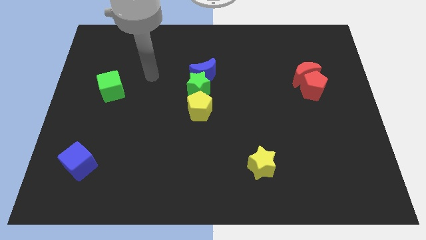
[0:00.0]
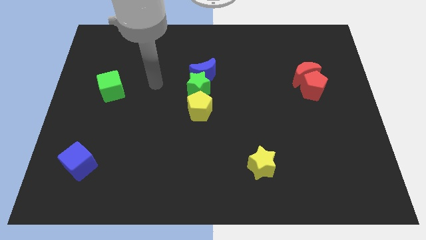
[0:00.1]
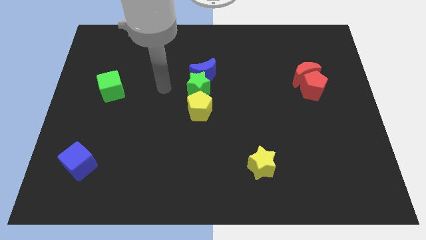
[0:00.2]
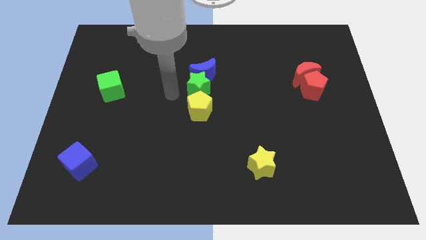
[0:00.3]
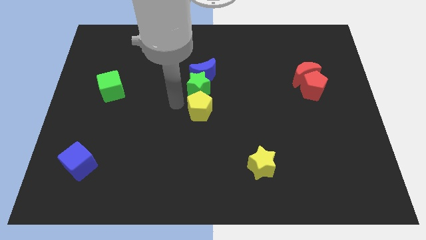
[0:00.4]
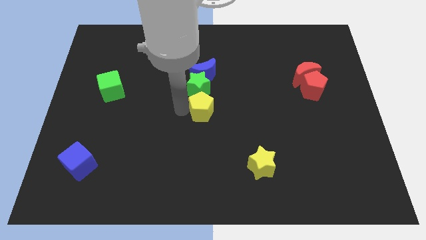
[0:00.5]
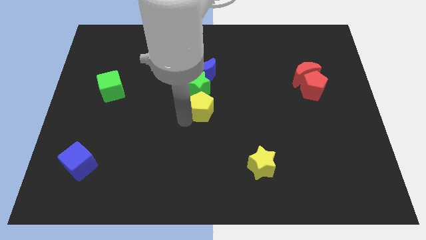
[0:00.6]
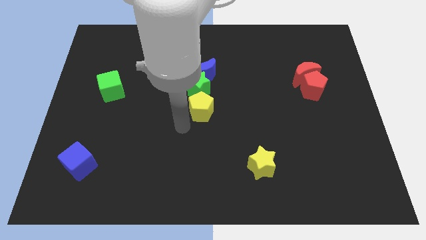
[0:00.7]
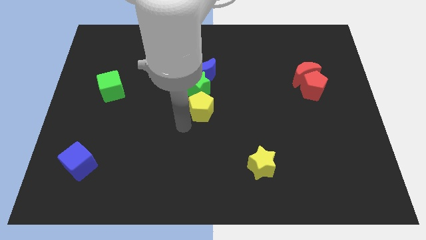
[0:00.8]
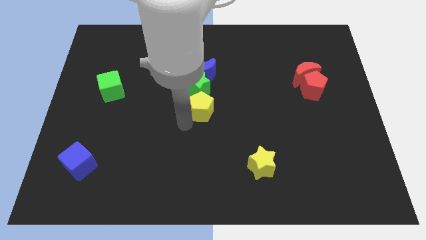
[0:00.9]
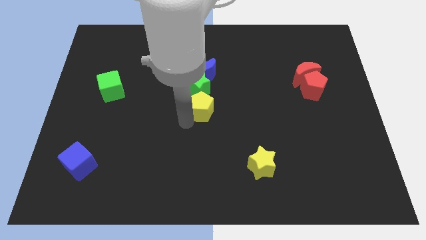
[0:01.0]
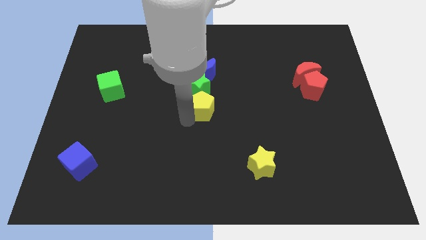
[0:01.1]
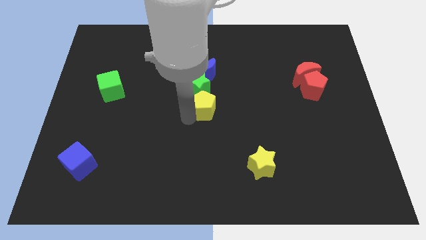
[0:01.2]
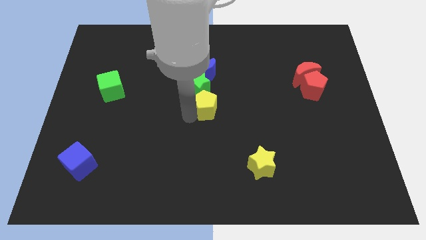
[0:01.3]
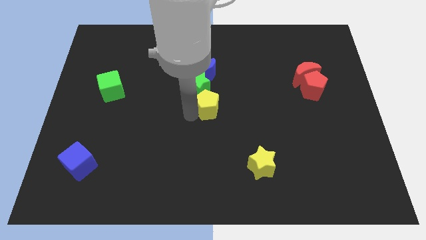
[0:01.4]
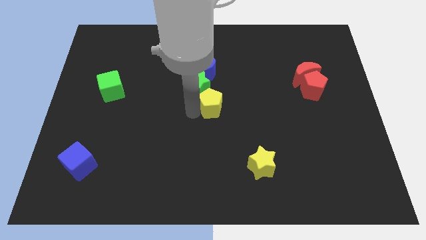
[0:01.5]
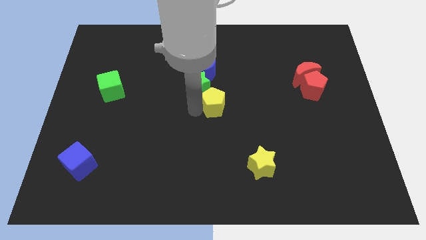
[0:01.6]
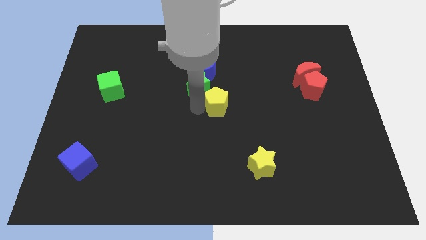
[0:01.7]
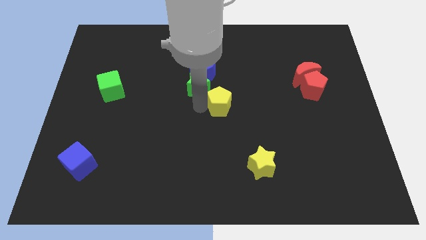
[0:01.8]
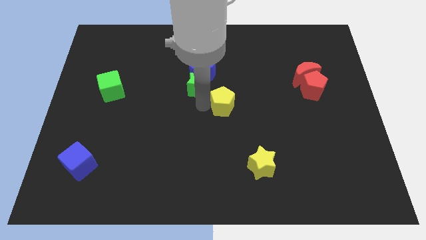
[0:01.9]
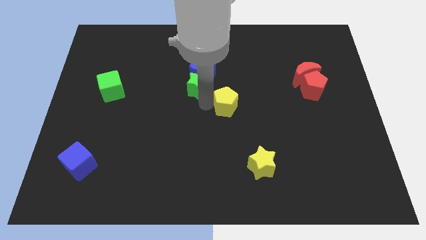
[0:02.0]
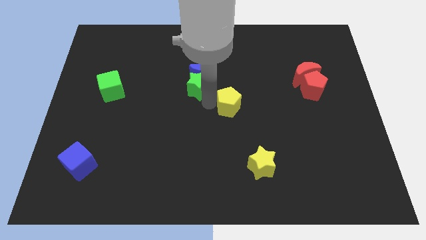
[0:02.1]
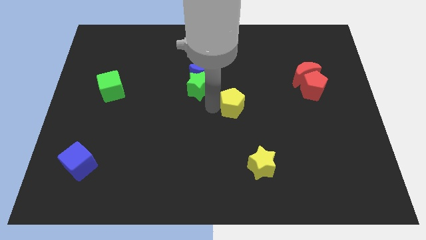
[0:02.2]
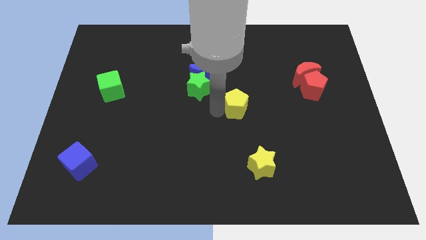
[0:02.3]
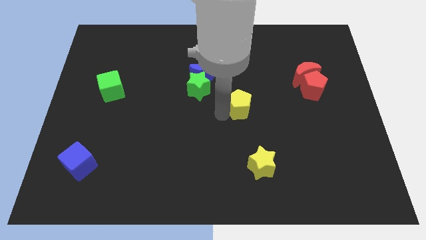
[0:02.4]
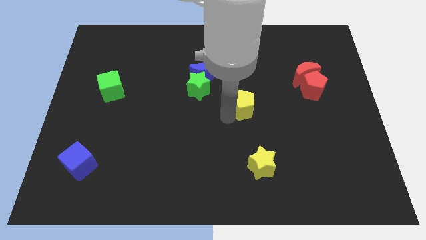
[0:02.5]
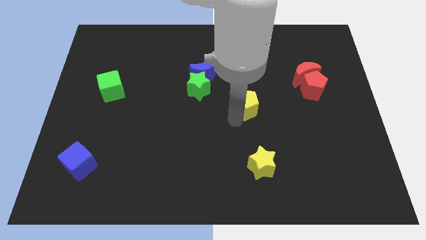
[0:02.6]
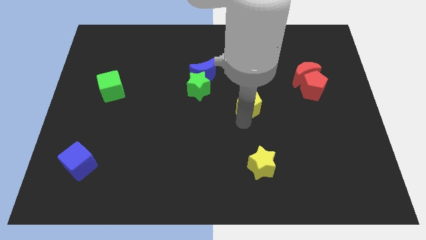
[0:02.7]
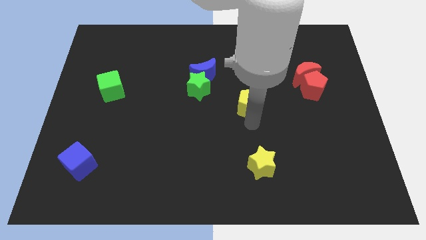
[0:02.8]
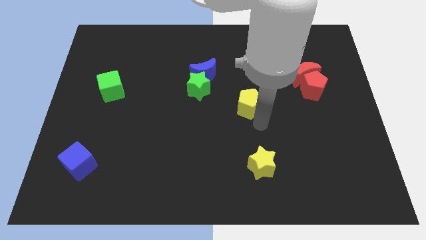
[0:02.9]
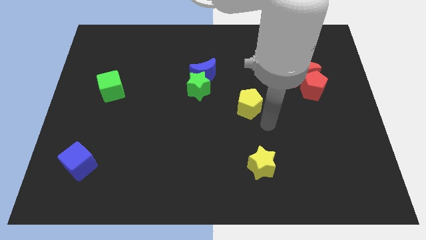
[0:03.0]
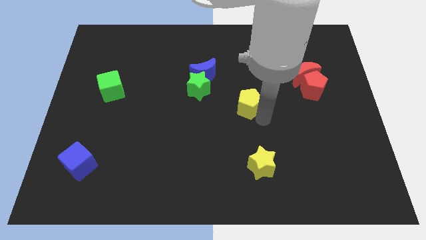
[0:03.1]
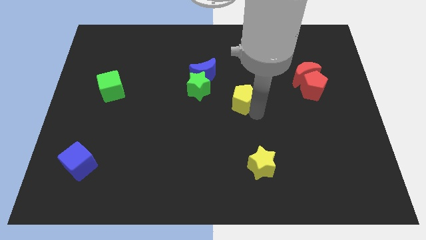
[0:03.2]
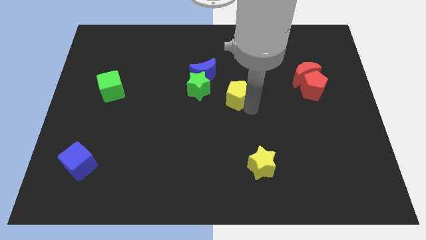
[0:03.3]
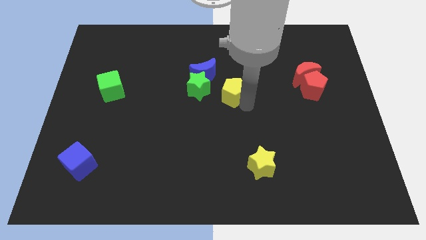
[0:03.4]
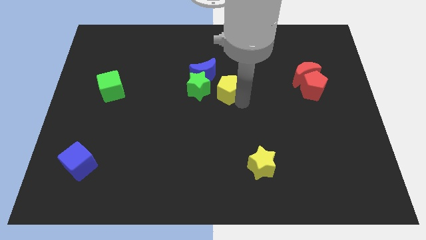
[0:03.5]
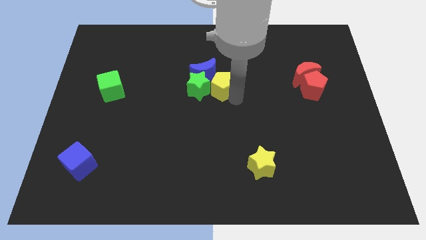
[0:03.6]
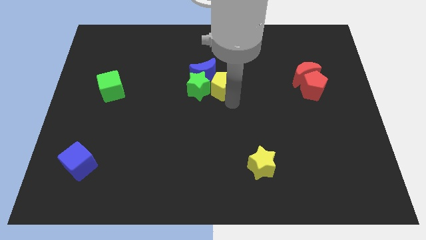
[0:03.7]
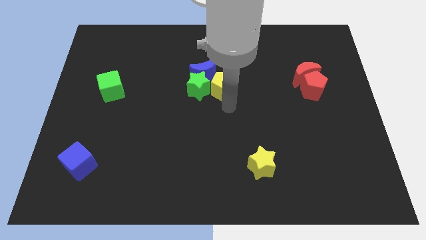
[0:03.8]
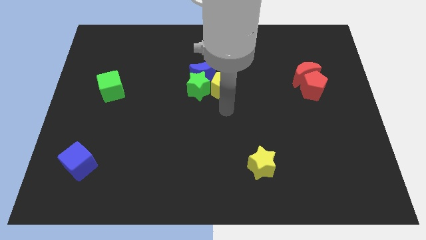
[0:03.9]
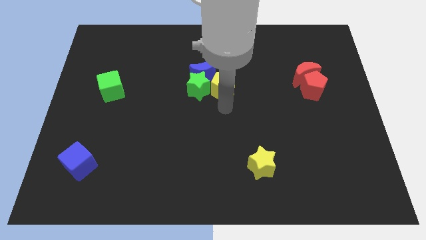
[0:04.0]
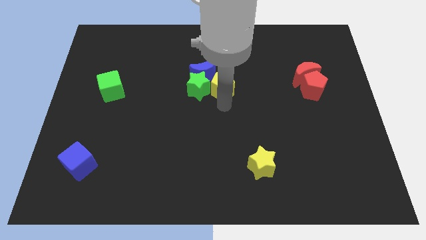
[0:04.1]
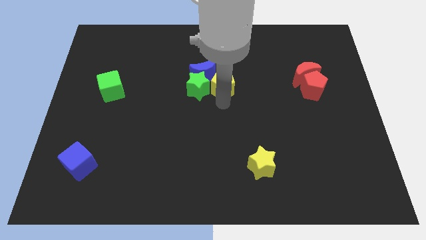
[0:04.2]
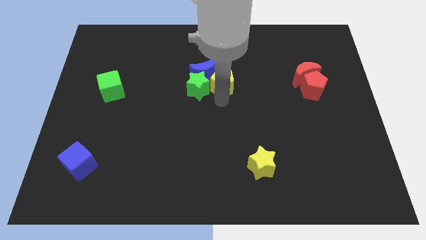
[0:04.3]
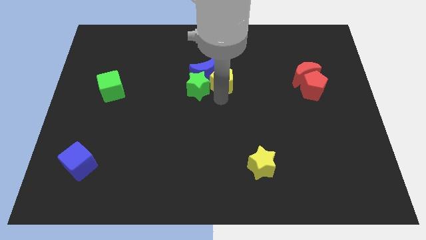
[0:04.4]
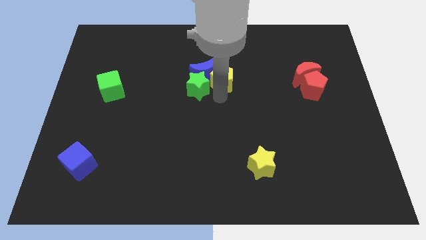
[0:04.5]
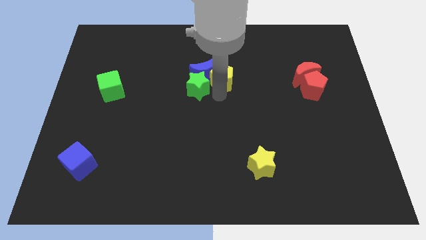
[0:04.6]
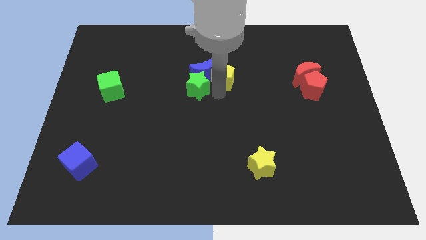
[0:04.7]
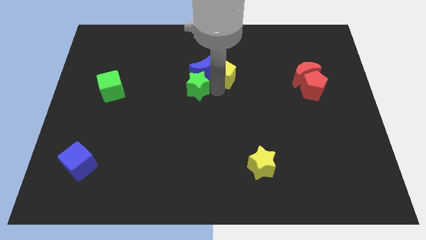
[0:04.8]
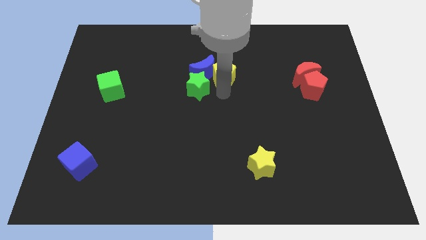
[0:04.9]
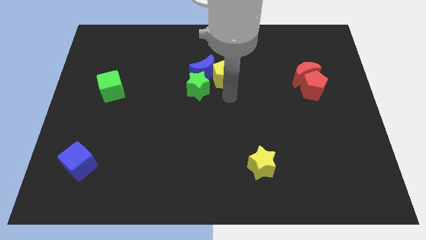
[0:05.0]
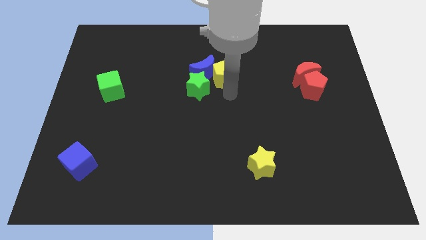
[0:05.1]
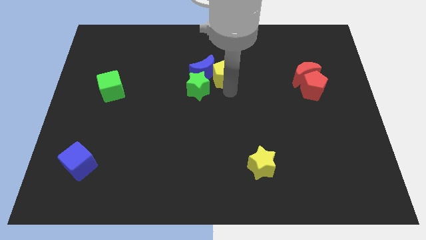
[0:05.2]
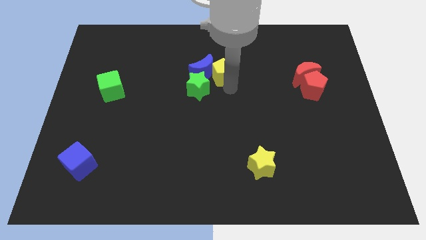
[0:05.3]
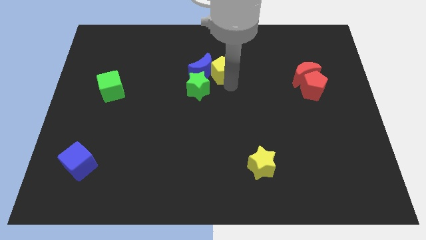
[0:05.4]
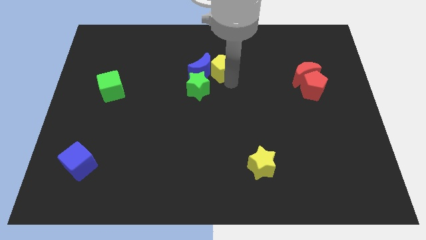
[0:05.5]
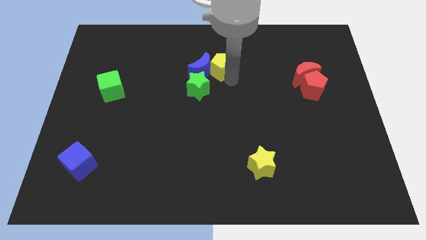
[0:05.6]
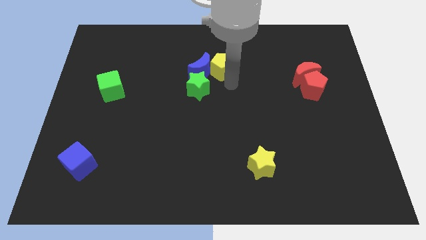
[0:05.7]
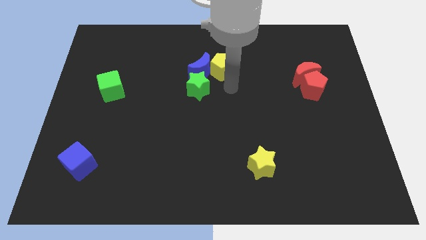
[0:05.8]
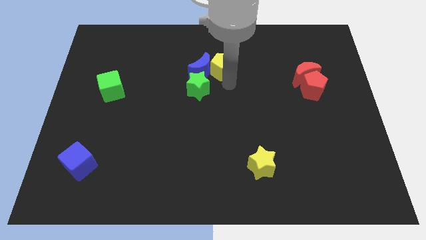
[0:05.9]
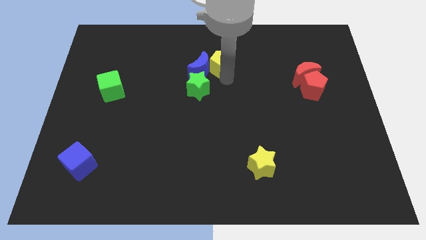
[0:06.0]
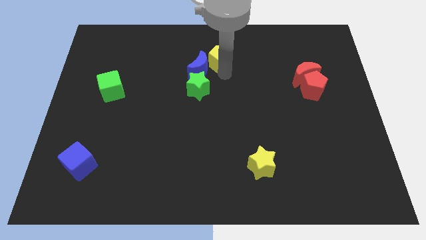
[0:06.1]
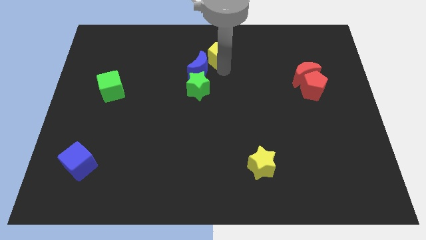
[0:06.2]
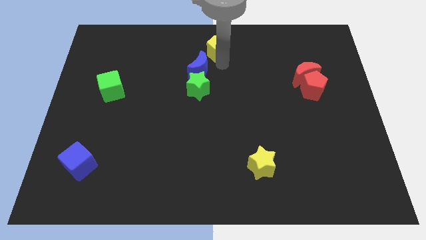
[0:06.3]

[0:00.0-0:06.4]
slide the yellow pentagon to the top
